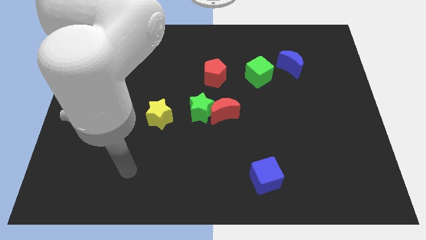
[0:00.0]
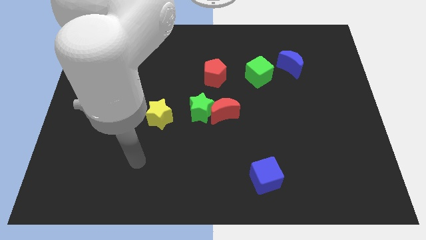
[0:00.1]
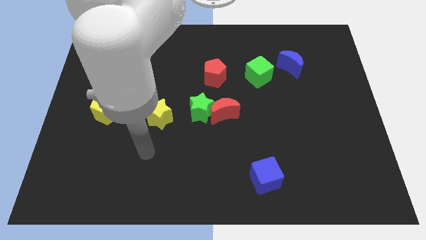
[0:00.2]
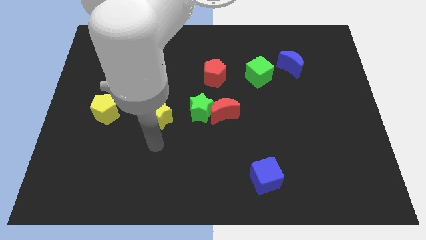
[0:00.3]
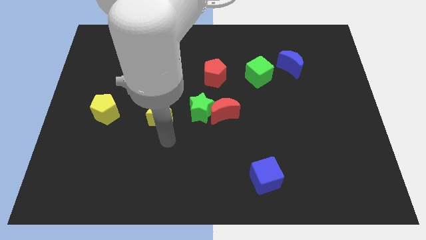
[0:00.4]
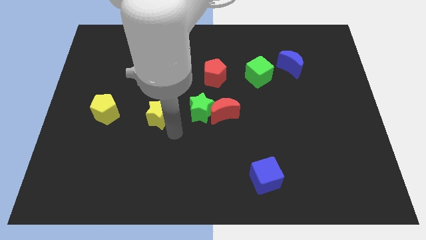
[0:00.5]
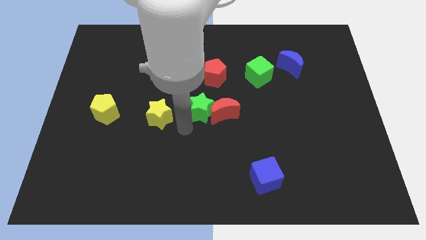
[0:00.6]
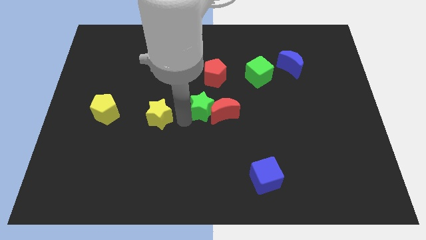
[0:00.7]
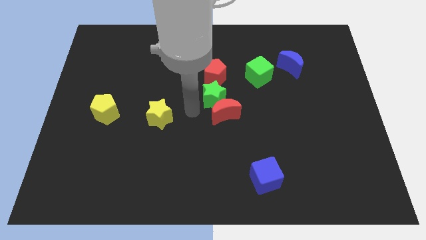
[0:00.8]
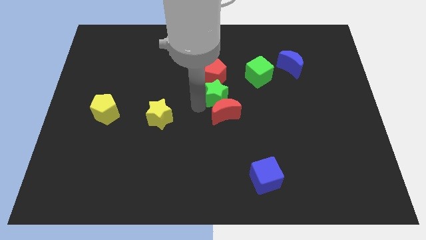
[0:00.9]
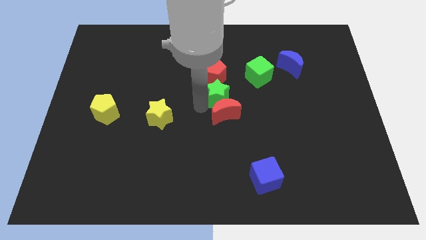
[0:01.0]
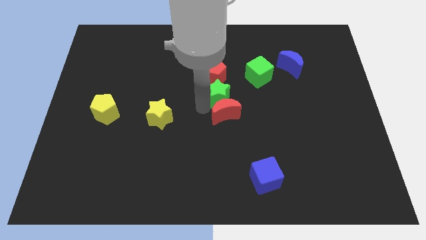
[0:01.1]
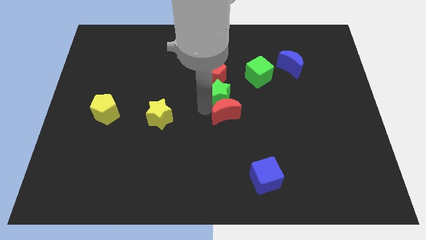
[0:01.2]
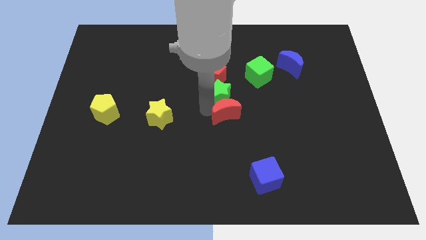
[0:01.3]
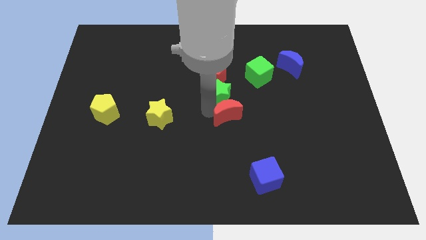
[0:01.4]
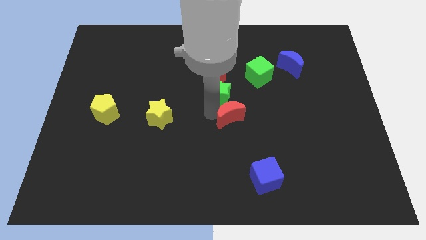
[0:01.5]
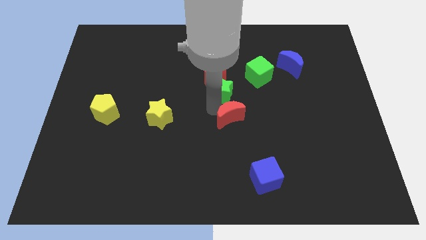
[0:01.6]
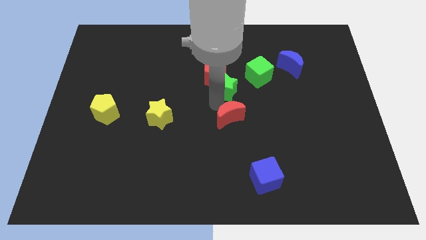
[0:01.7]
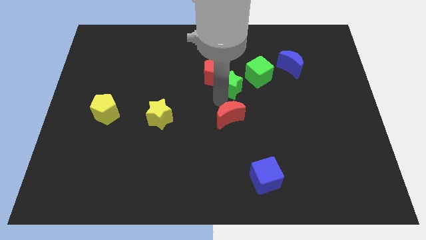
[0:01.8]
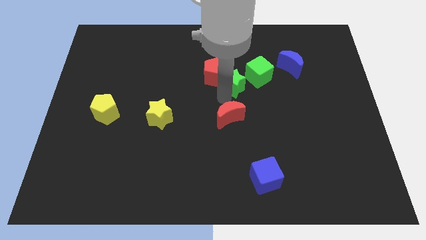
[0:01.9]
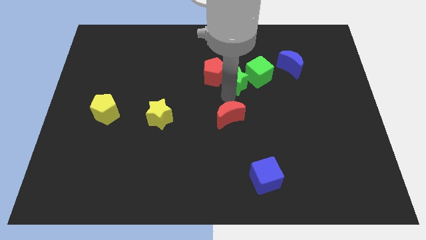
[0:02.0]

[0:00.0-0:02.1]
separate the red moon from the green star

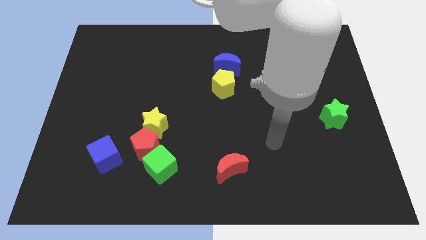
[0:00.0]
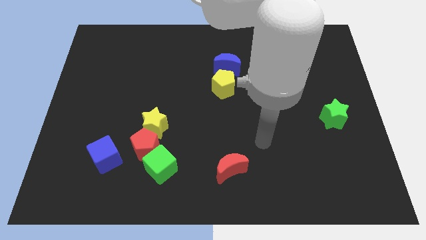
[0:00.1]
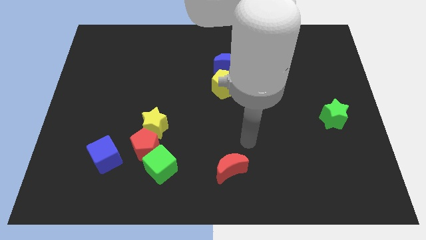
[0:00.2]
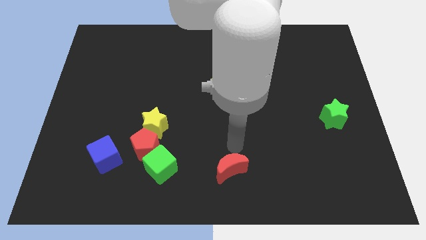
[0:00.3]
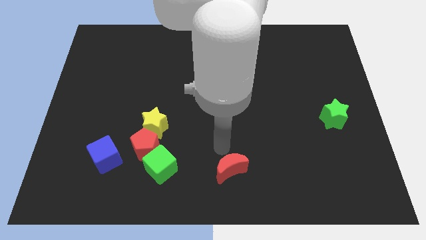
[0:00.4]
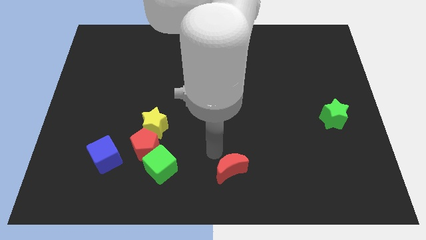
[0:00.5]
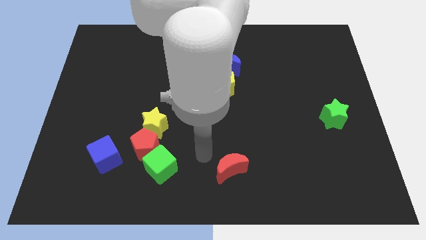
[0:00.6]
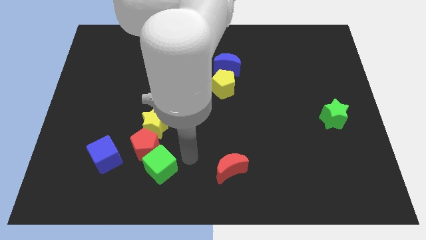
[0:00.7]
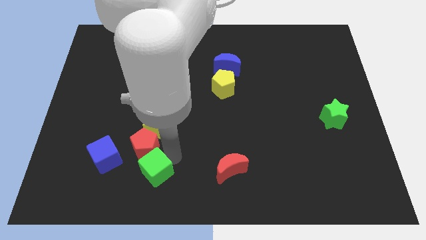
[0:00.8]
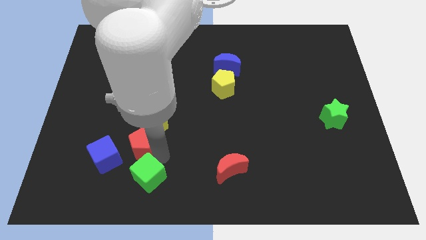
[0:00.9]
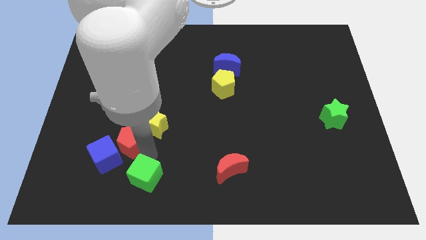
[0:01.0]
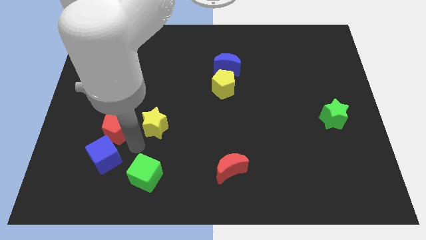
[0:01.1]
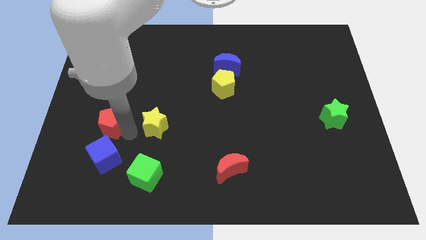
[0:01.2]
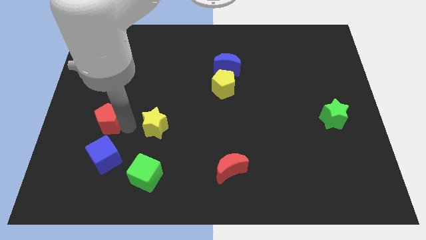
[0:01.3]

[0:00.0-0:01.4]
pull the yellow star apart from the red pentagon

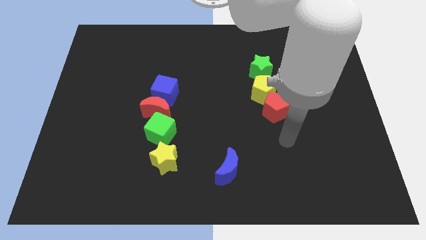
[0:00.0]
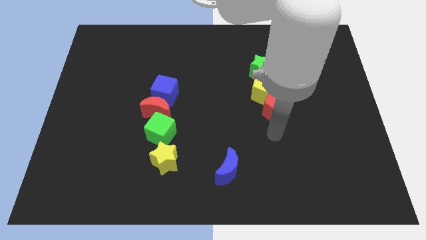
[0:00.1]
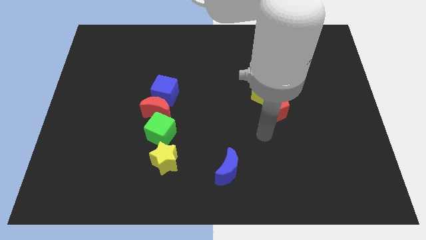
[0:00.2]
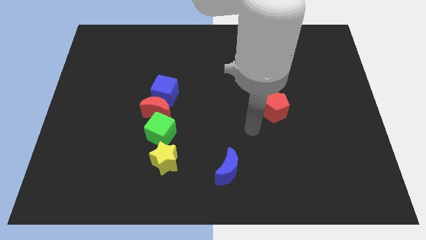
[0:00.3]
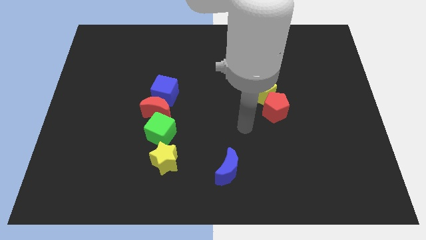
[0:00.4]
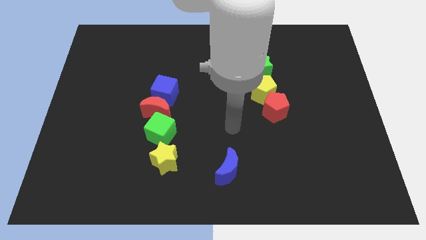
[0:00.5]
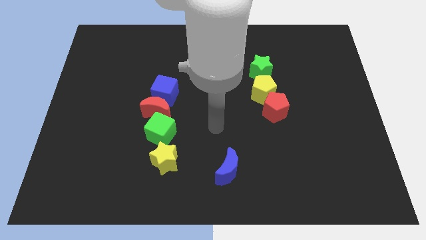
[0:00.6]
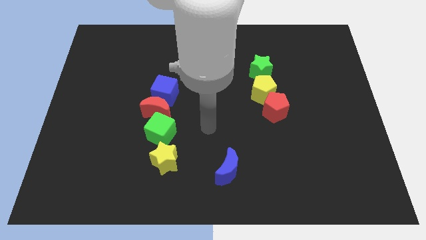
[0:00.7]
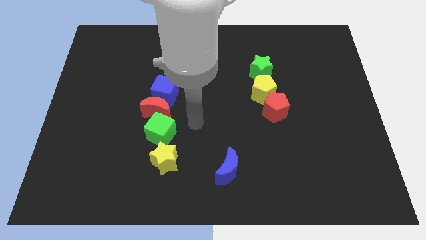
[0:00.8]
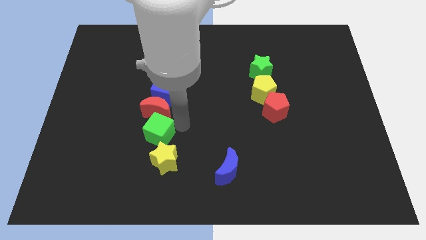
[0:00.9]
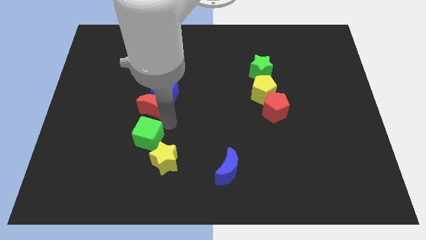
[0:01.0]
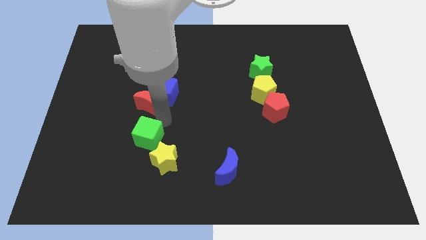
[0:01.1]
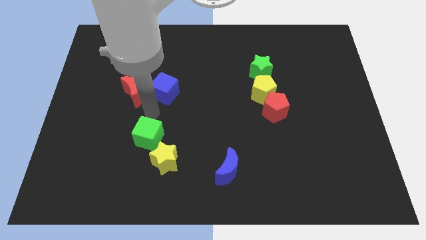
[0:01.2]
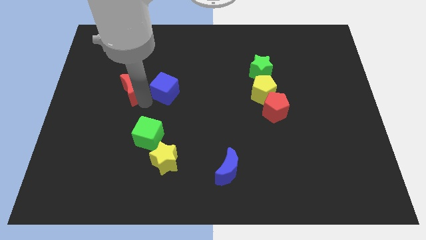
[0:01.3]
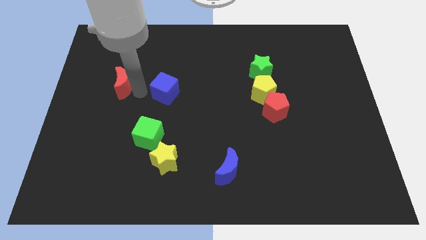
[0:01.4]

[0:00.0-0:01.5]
separate the blue cube from the red moon

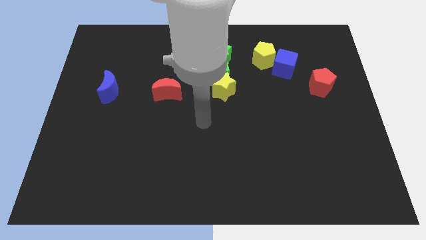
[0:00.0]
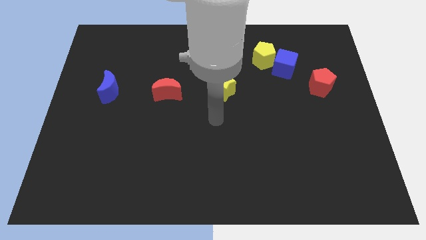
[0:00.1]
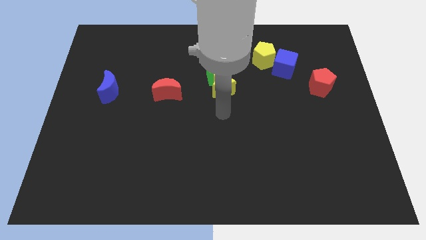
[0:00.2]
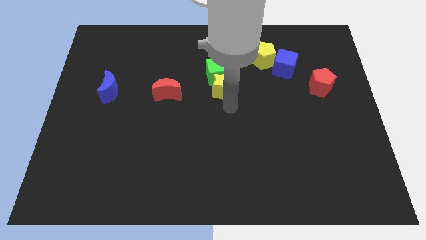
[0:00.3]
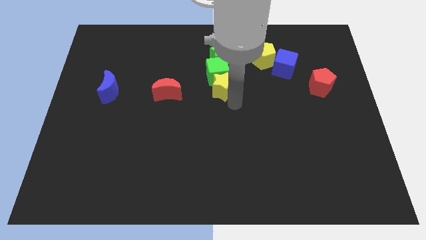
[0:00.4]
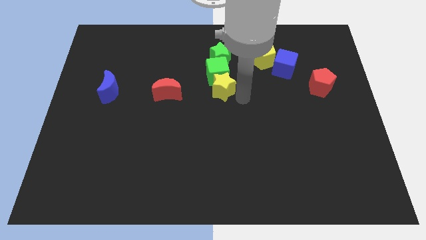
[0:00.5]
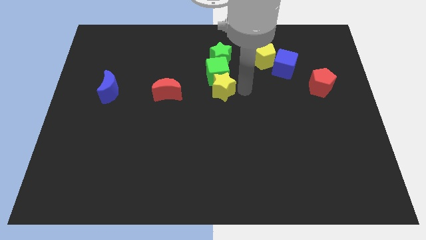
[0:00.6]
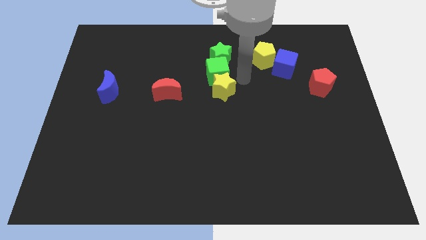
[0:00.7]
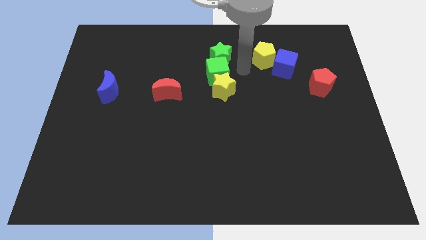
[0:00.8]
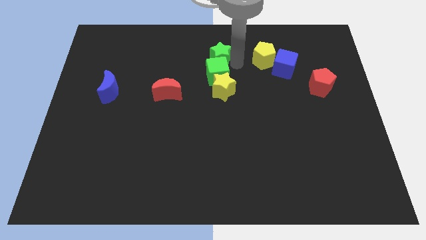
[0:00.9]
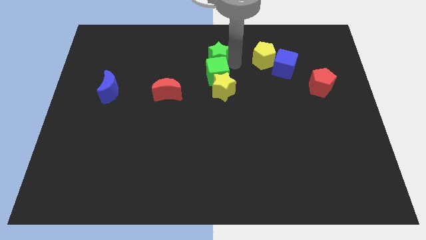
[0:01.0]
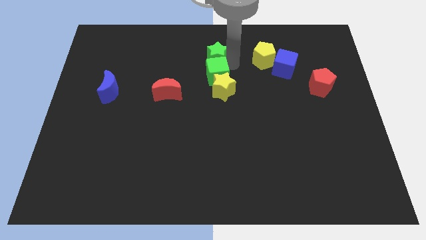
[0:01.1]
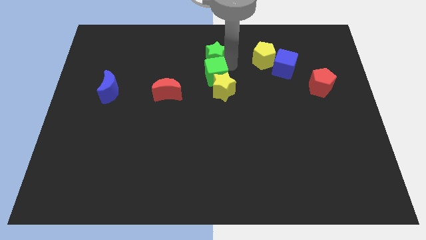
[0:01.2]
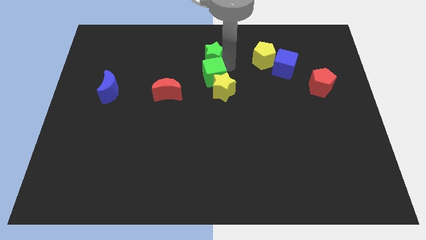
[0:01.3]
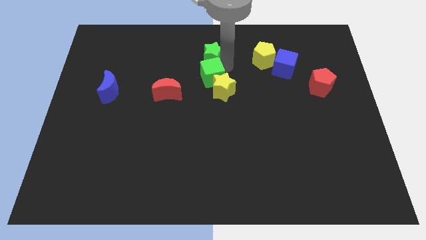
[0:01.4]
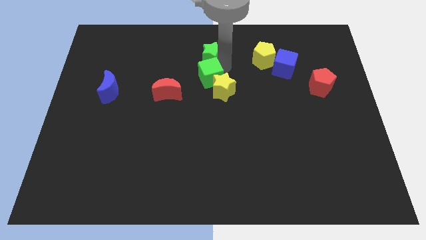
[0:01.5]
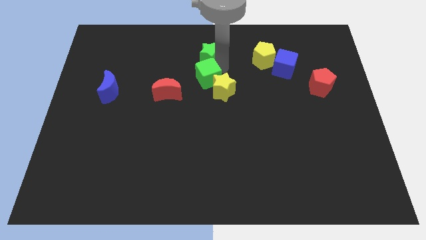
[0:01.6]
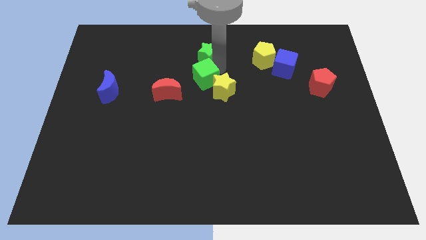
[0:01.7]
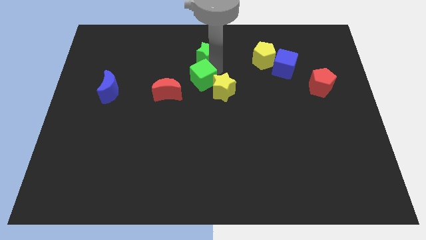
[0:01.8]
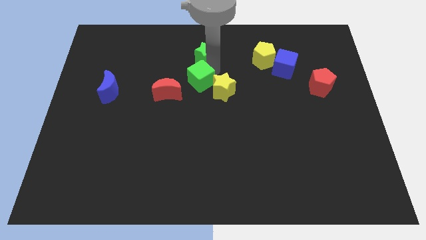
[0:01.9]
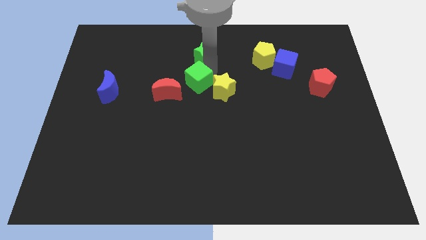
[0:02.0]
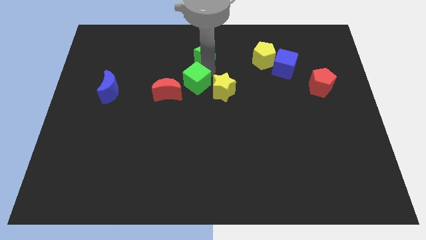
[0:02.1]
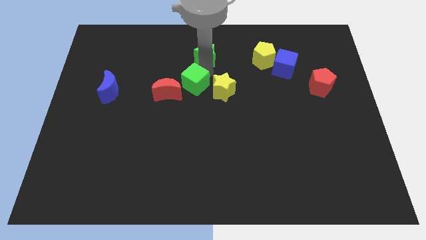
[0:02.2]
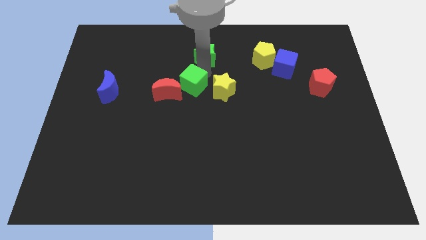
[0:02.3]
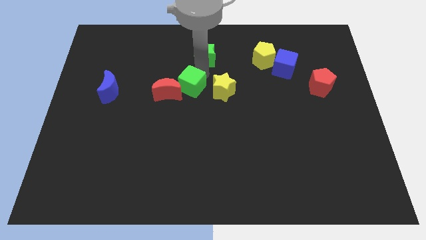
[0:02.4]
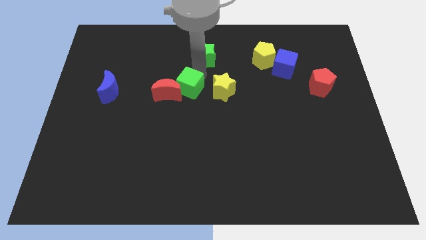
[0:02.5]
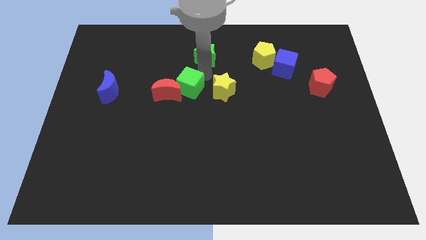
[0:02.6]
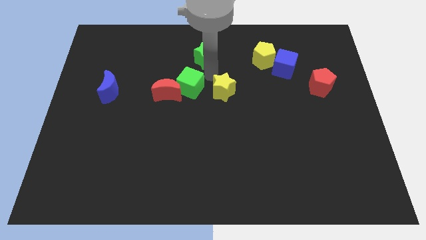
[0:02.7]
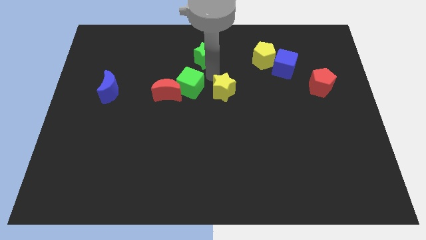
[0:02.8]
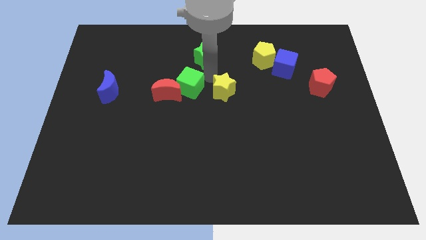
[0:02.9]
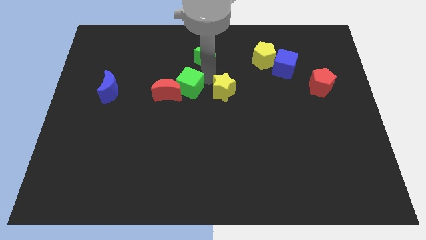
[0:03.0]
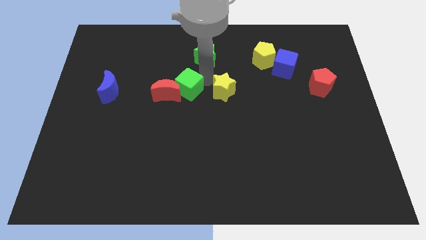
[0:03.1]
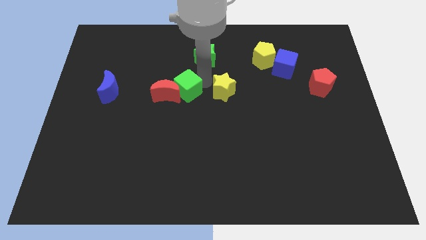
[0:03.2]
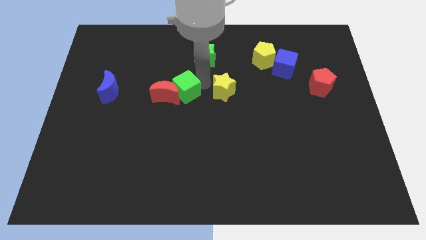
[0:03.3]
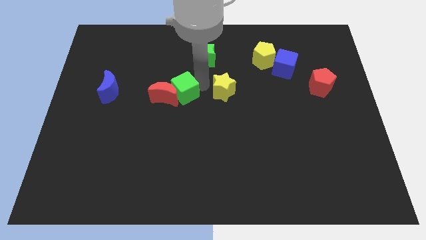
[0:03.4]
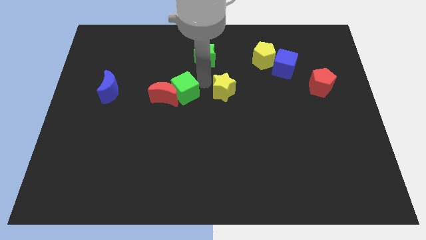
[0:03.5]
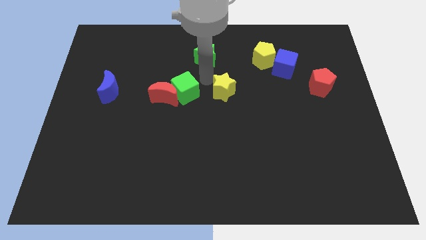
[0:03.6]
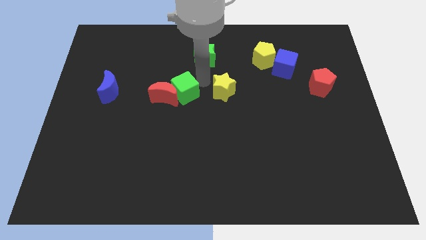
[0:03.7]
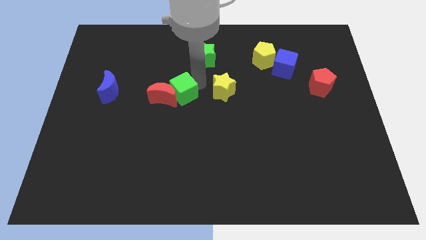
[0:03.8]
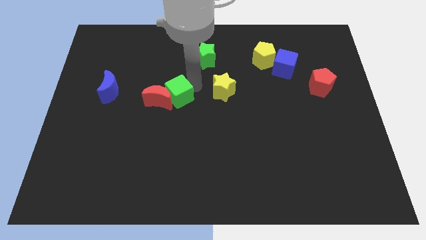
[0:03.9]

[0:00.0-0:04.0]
separate the green cube from the yellow star and green star

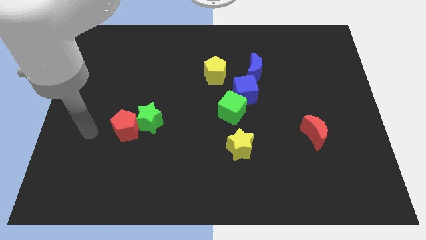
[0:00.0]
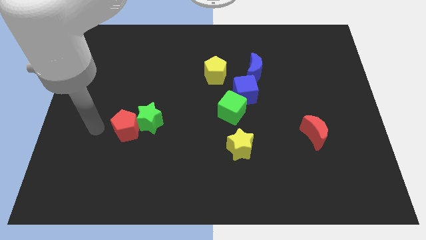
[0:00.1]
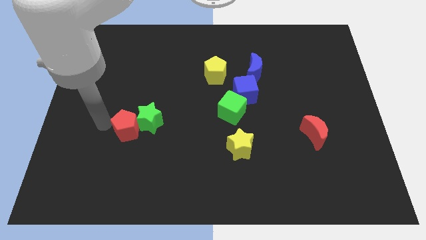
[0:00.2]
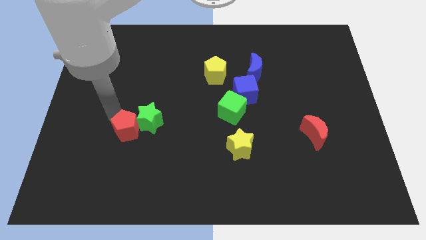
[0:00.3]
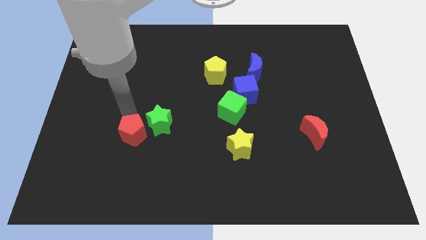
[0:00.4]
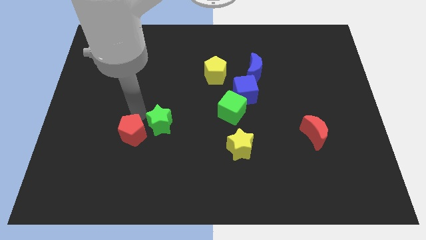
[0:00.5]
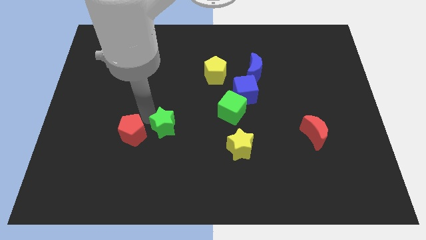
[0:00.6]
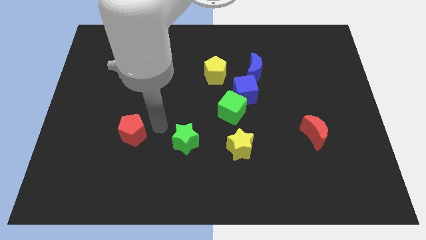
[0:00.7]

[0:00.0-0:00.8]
pull the red pentagon apart from the green star
